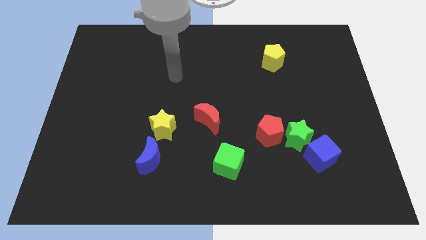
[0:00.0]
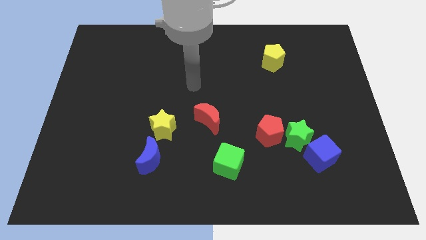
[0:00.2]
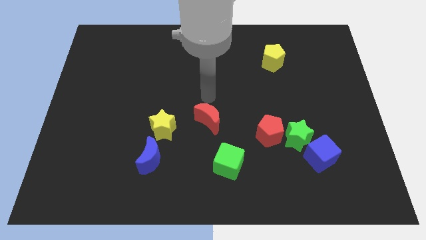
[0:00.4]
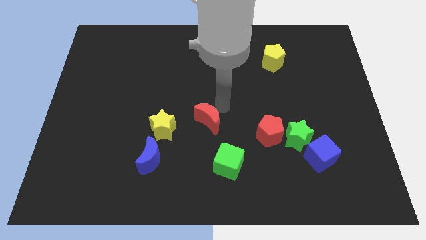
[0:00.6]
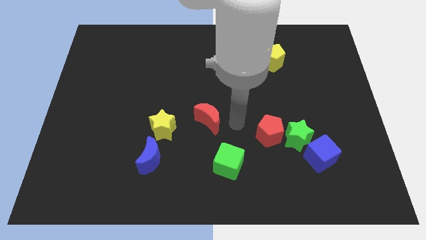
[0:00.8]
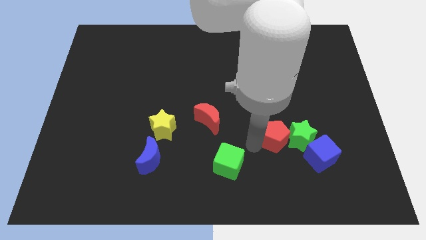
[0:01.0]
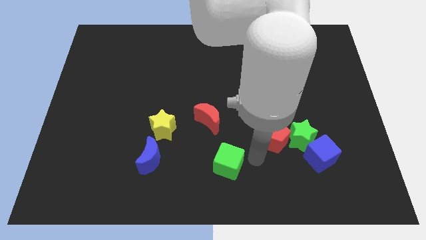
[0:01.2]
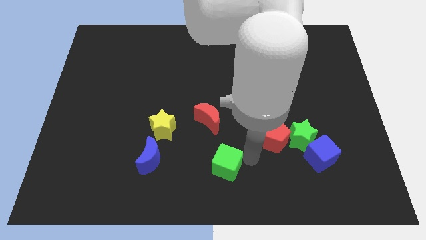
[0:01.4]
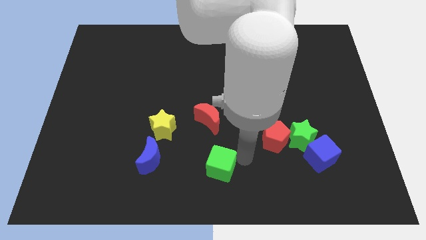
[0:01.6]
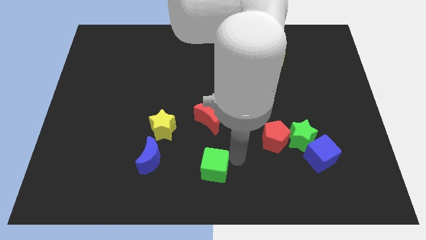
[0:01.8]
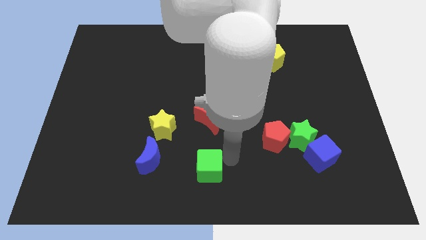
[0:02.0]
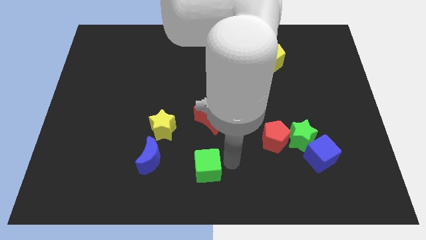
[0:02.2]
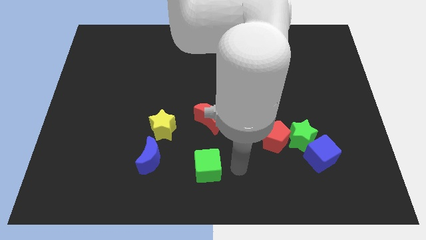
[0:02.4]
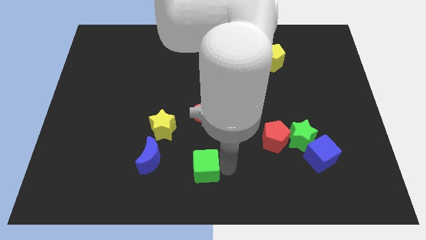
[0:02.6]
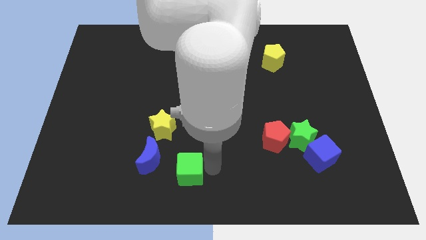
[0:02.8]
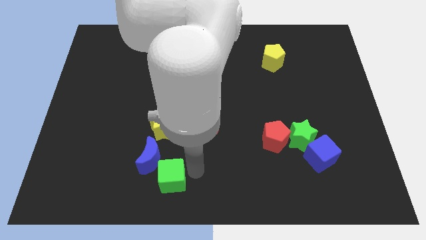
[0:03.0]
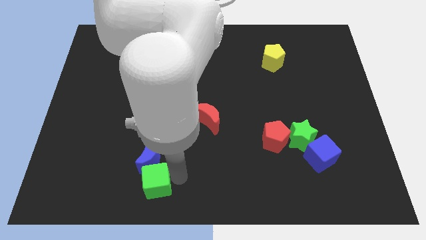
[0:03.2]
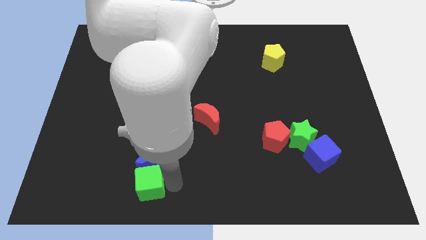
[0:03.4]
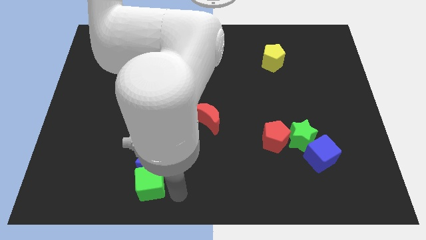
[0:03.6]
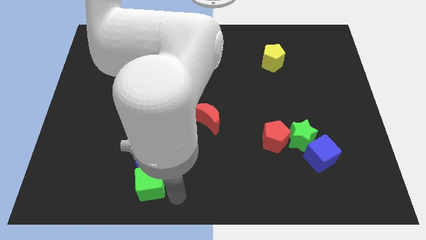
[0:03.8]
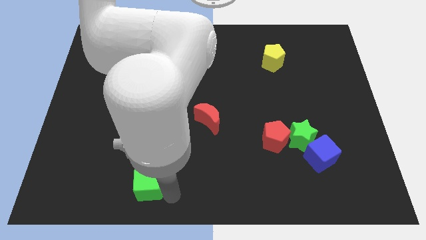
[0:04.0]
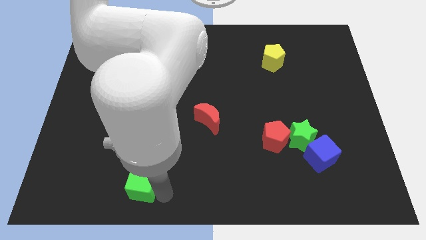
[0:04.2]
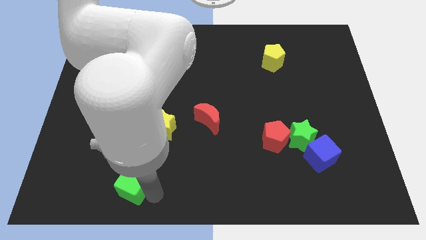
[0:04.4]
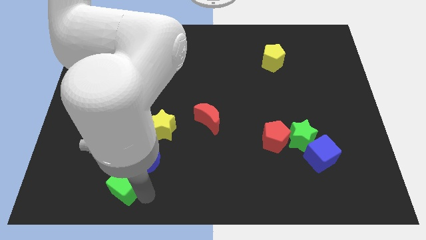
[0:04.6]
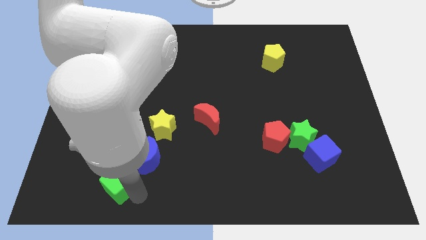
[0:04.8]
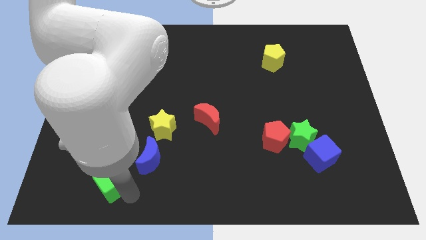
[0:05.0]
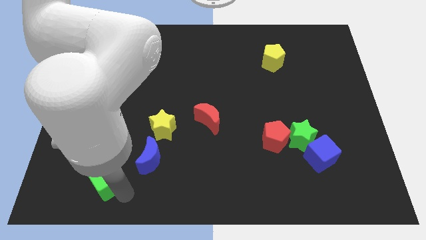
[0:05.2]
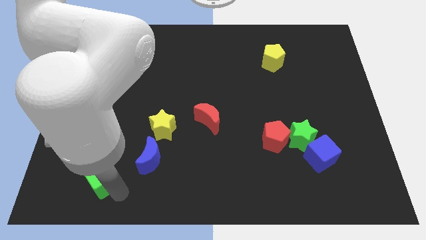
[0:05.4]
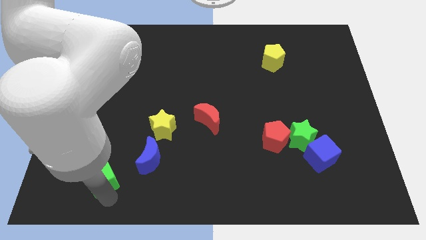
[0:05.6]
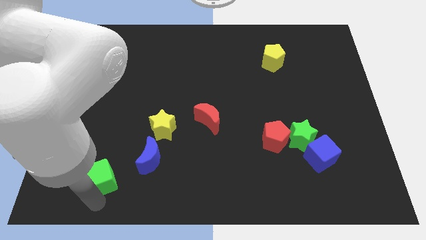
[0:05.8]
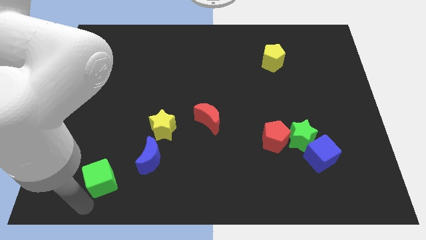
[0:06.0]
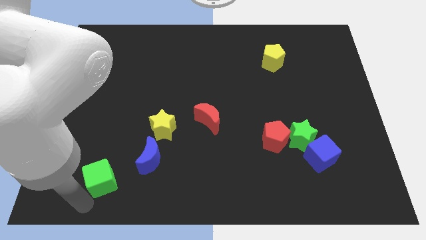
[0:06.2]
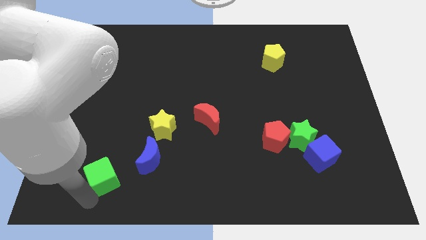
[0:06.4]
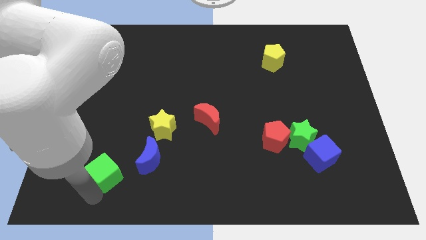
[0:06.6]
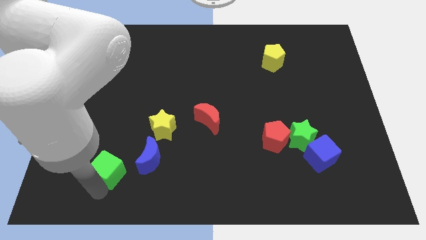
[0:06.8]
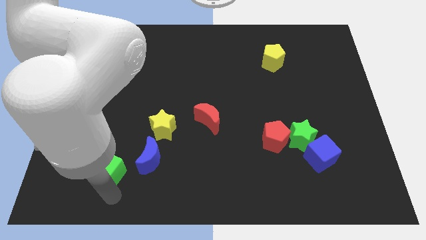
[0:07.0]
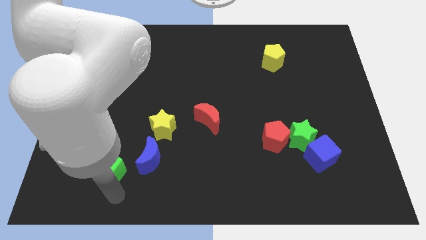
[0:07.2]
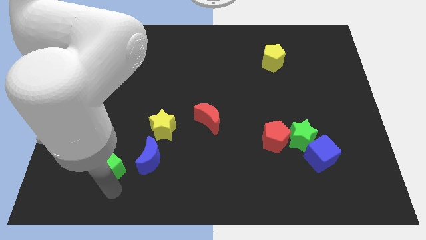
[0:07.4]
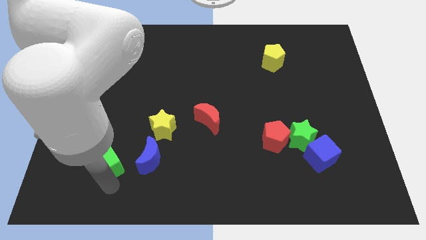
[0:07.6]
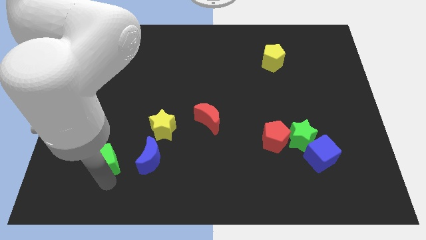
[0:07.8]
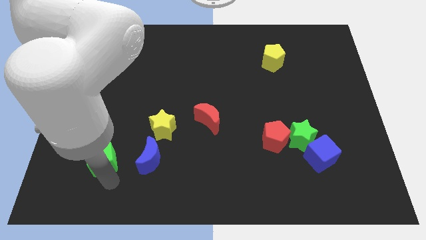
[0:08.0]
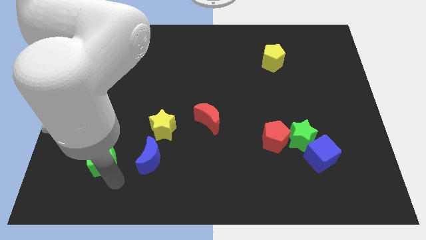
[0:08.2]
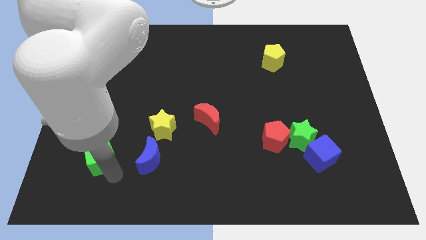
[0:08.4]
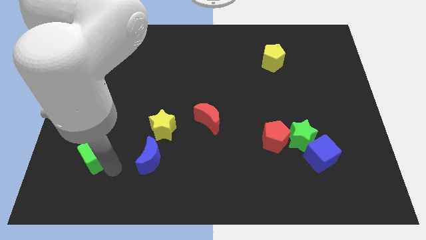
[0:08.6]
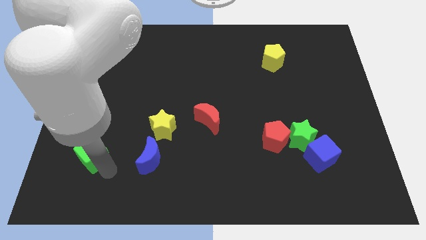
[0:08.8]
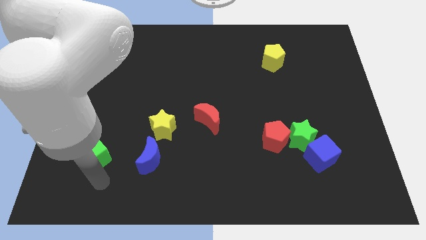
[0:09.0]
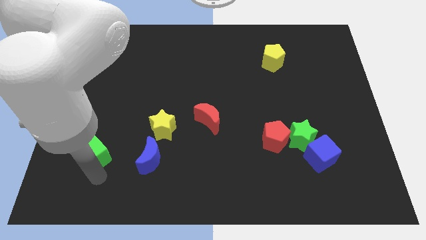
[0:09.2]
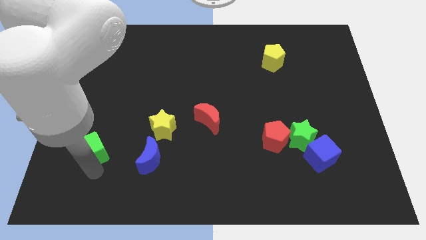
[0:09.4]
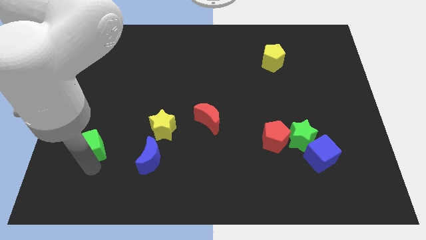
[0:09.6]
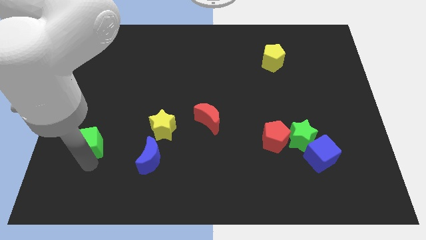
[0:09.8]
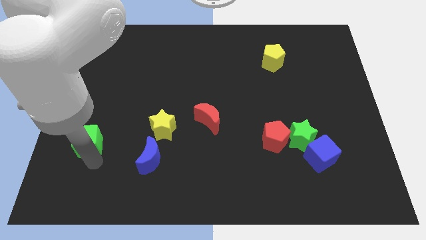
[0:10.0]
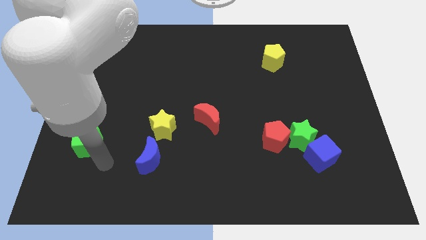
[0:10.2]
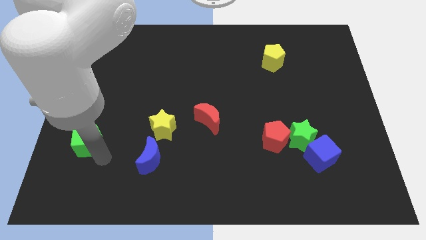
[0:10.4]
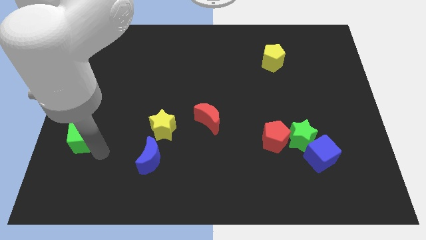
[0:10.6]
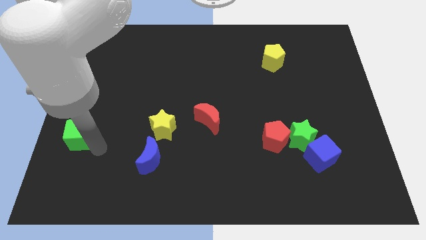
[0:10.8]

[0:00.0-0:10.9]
move the green cube to the left side of the board

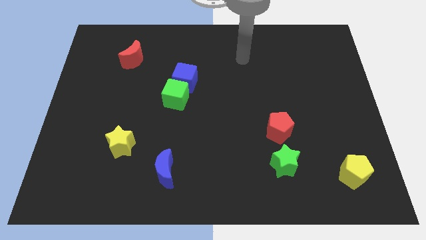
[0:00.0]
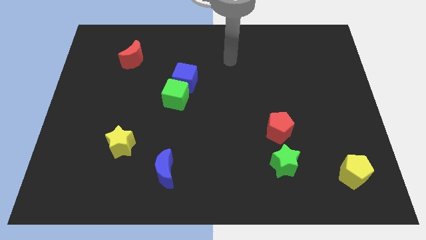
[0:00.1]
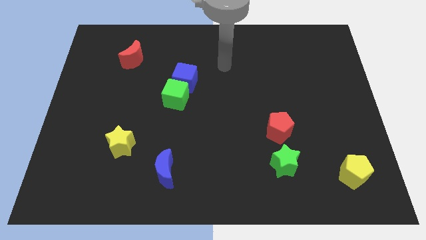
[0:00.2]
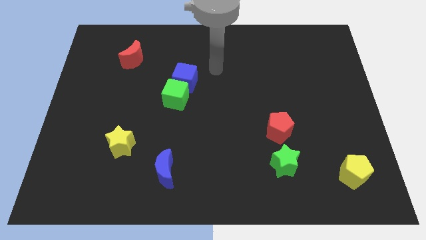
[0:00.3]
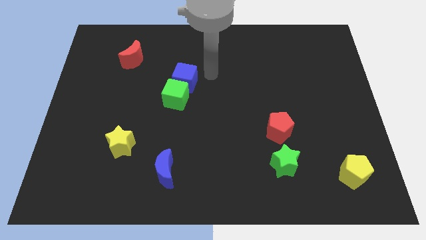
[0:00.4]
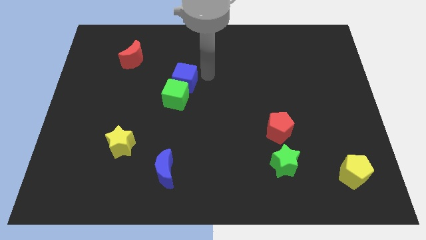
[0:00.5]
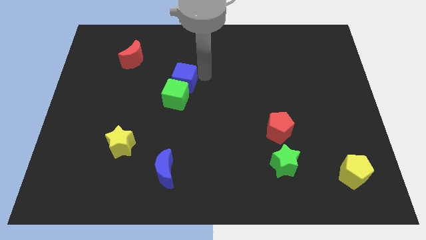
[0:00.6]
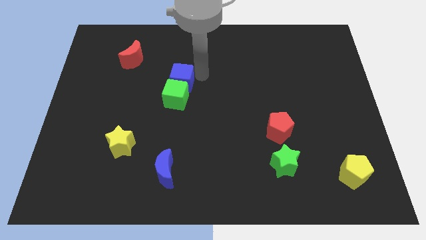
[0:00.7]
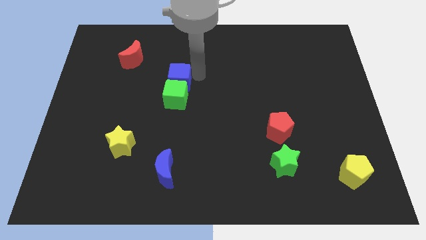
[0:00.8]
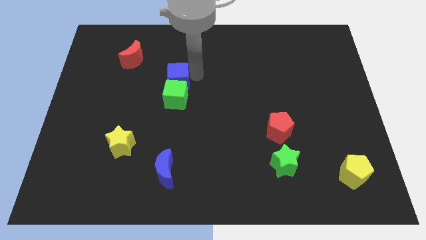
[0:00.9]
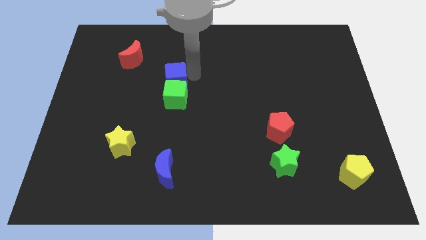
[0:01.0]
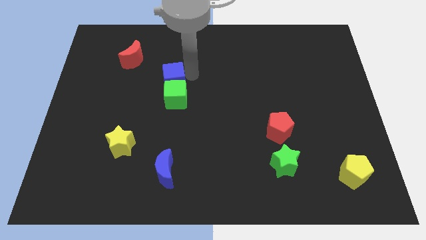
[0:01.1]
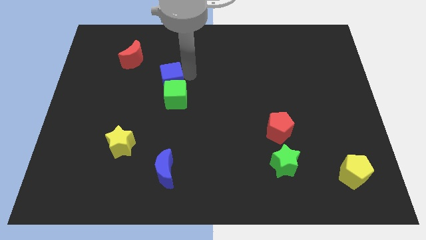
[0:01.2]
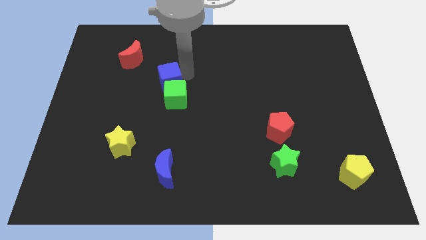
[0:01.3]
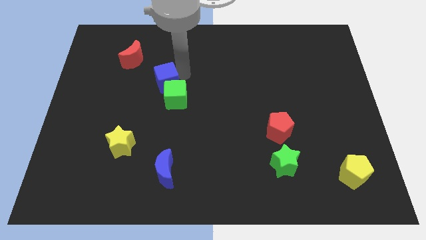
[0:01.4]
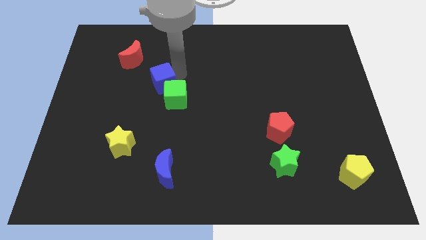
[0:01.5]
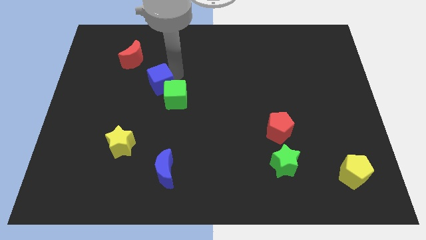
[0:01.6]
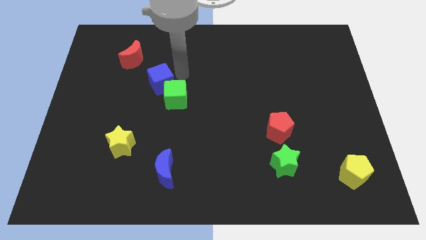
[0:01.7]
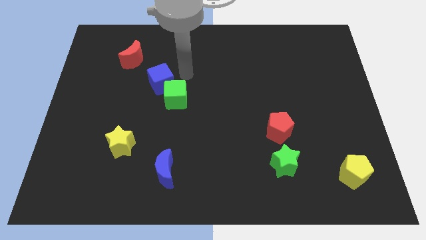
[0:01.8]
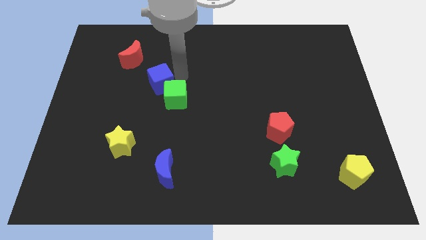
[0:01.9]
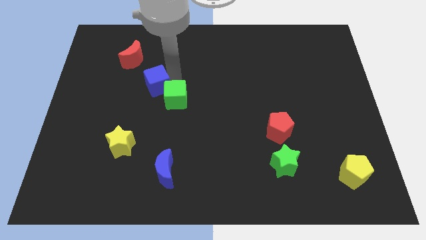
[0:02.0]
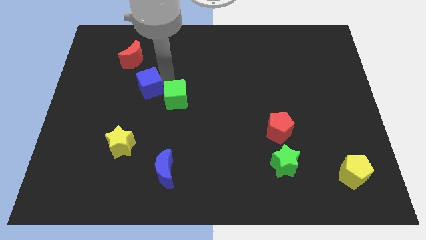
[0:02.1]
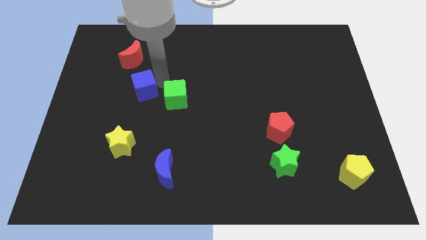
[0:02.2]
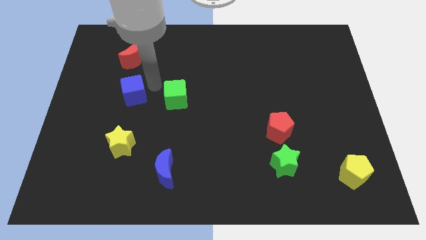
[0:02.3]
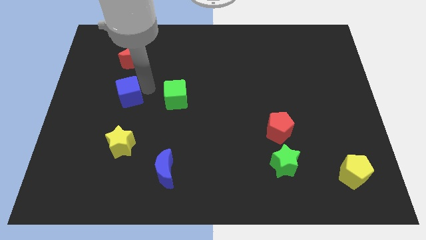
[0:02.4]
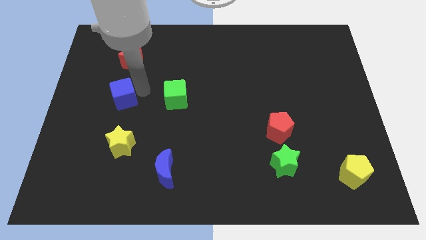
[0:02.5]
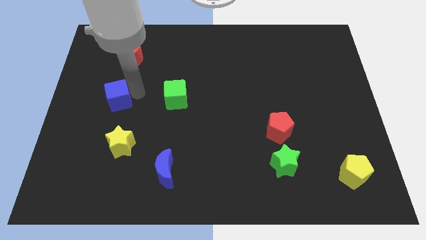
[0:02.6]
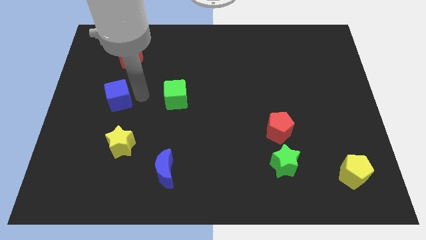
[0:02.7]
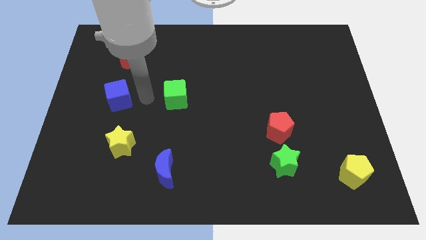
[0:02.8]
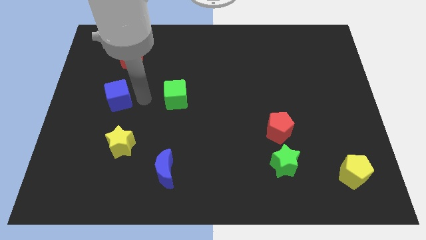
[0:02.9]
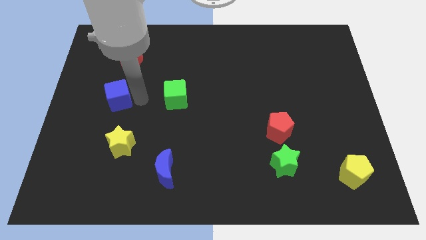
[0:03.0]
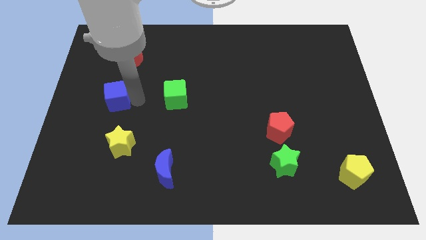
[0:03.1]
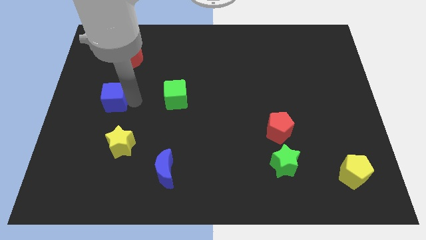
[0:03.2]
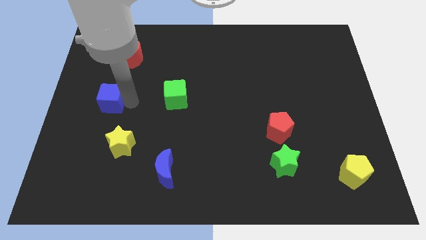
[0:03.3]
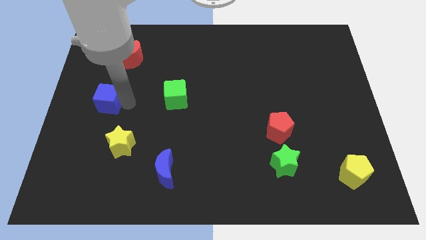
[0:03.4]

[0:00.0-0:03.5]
put the blue cube to the left side of the board
